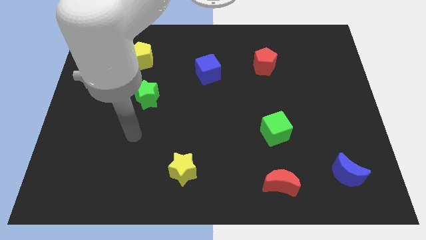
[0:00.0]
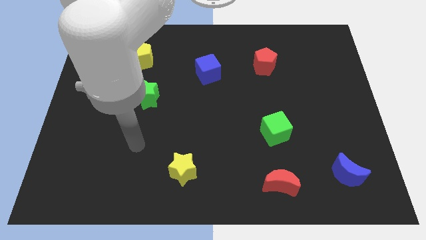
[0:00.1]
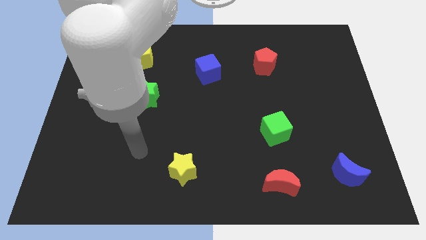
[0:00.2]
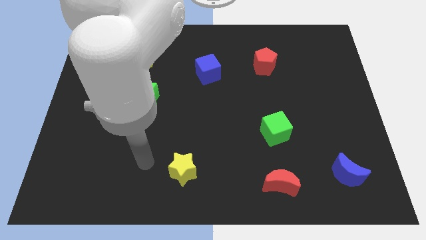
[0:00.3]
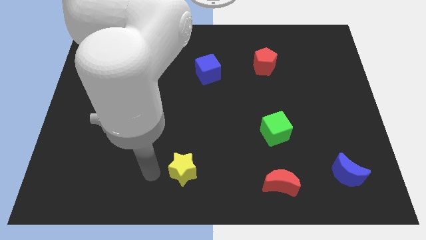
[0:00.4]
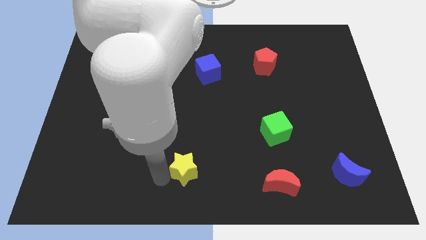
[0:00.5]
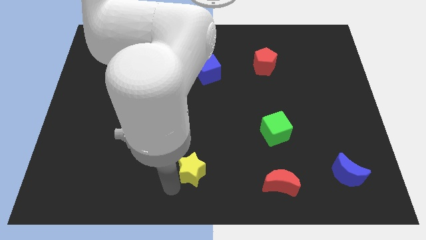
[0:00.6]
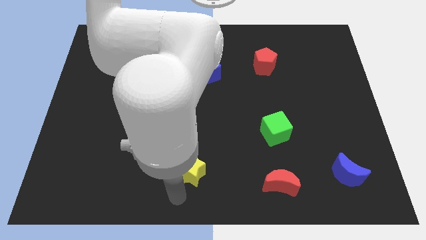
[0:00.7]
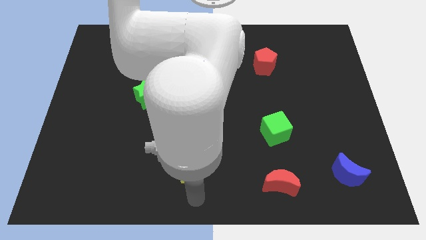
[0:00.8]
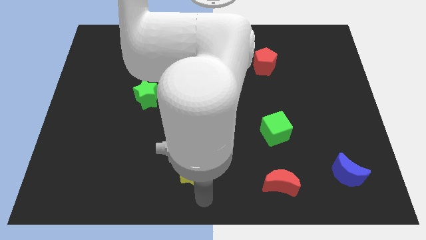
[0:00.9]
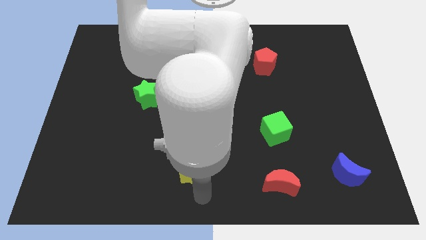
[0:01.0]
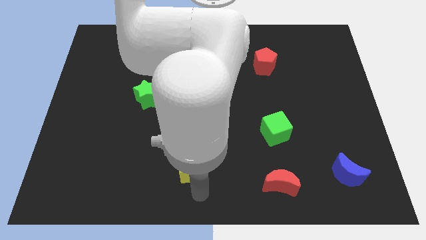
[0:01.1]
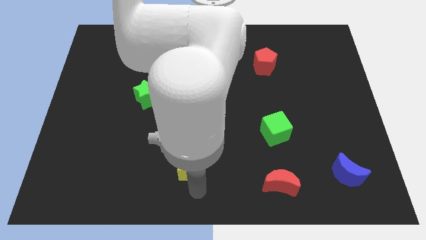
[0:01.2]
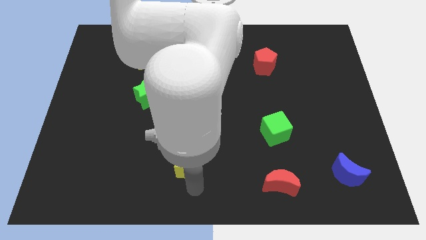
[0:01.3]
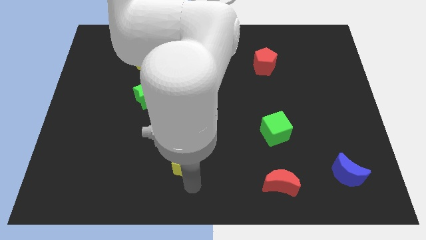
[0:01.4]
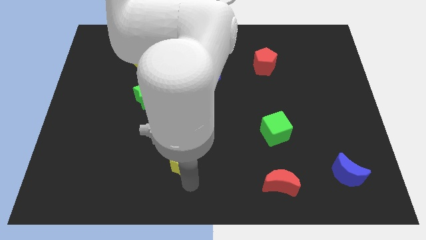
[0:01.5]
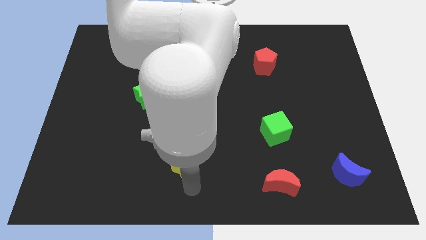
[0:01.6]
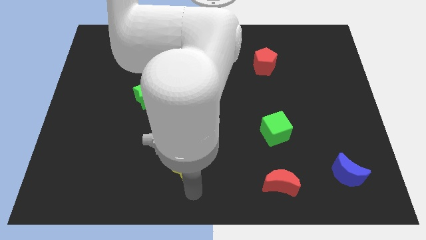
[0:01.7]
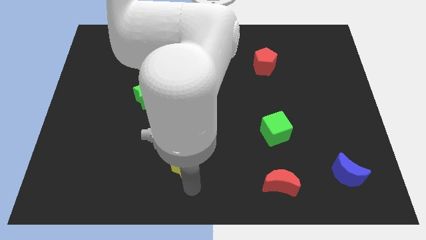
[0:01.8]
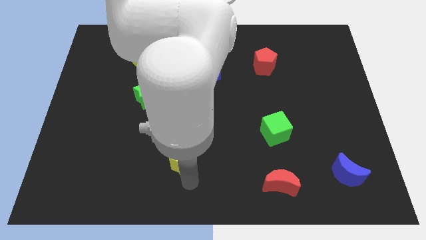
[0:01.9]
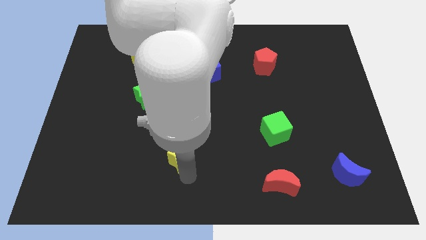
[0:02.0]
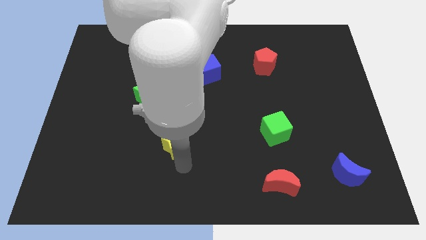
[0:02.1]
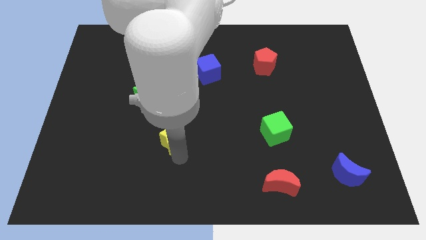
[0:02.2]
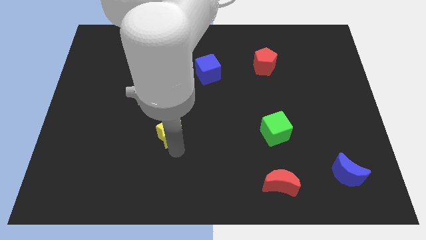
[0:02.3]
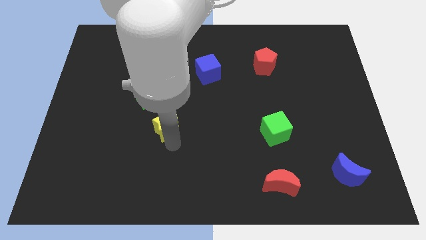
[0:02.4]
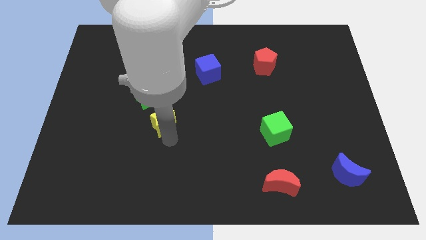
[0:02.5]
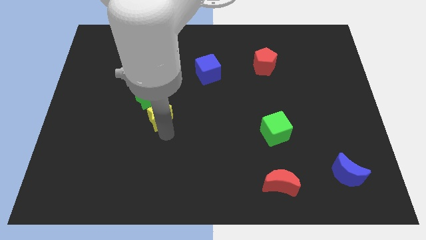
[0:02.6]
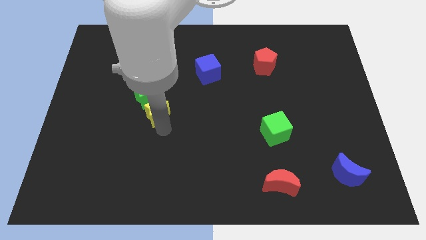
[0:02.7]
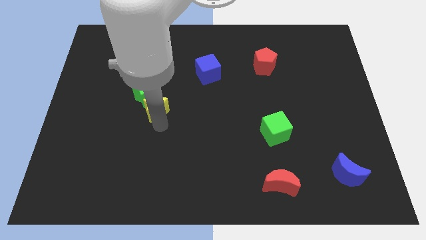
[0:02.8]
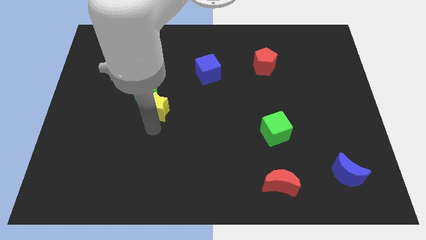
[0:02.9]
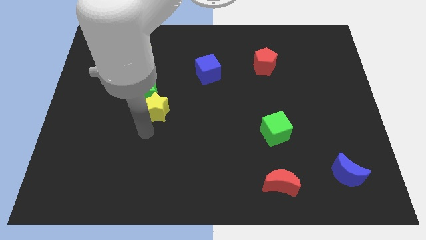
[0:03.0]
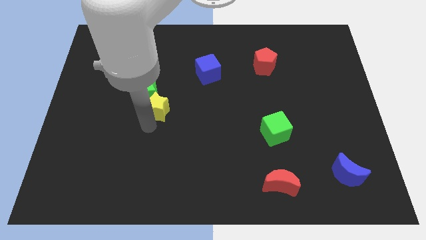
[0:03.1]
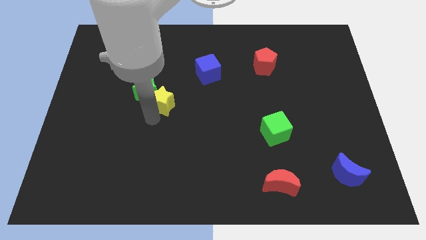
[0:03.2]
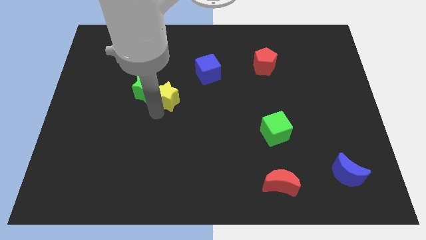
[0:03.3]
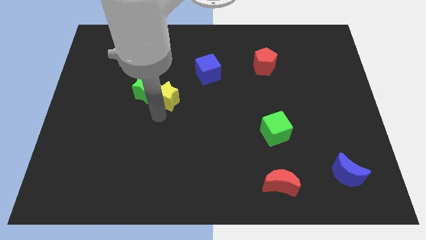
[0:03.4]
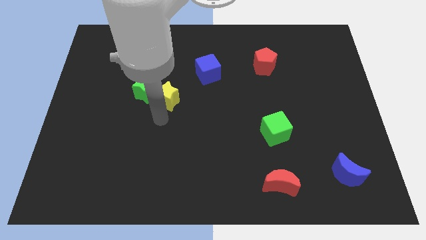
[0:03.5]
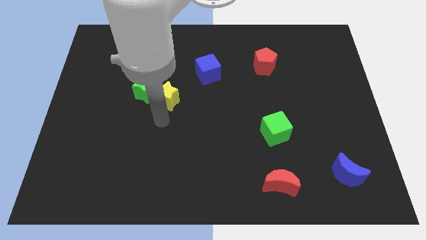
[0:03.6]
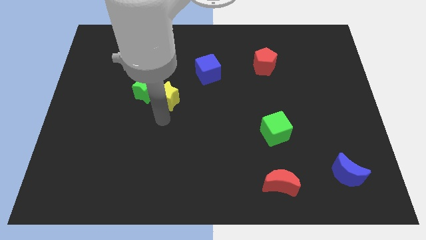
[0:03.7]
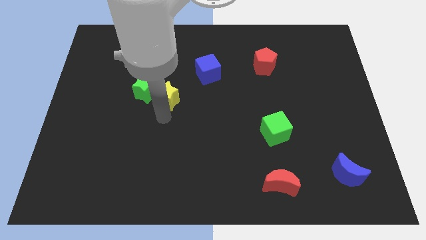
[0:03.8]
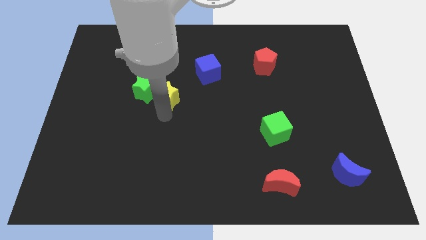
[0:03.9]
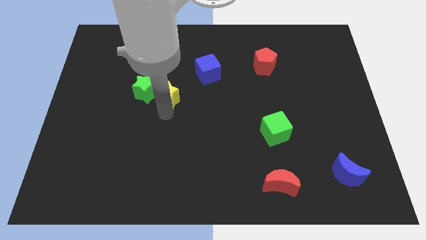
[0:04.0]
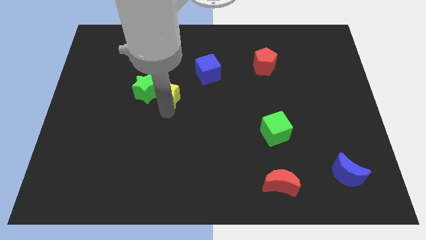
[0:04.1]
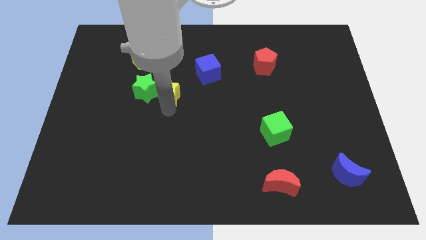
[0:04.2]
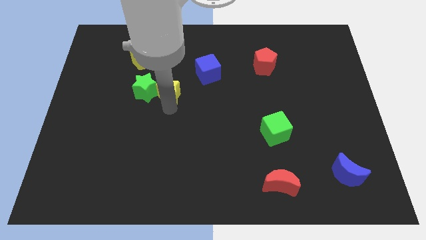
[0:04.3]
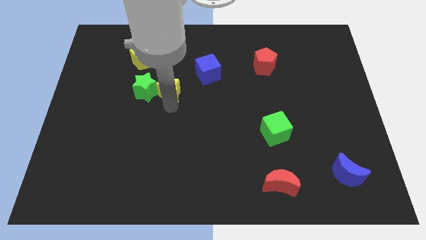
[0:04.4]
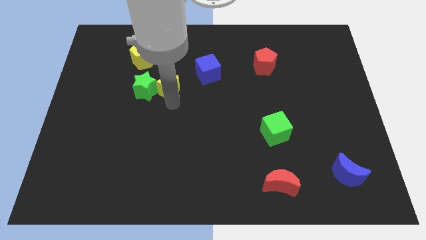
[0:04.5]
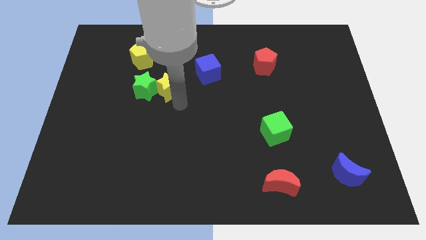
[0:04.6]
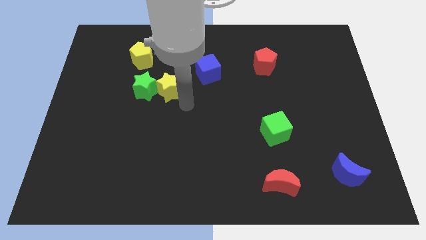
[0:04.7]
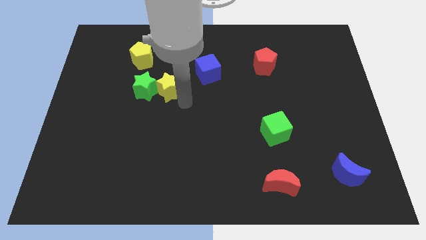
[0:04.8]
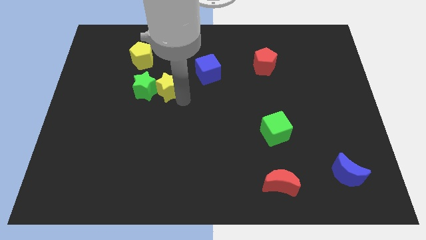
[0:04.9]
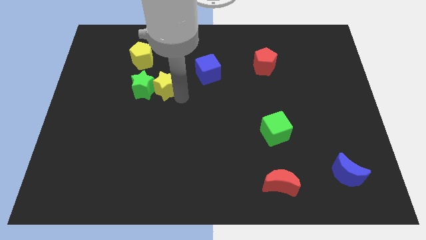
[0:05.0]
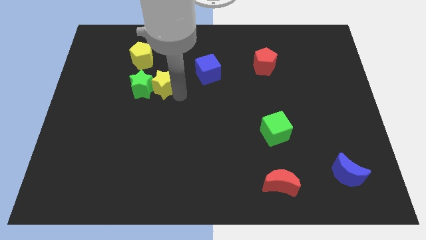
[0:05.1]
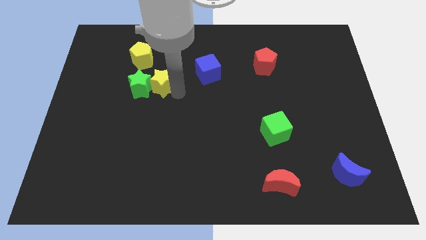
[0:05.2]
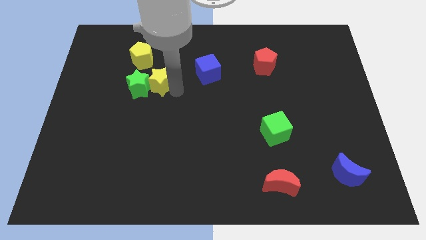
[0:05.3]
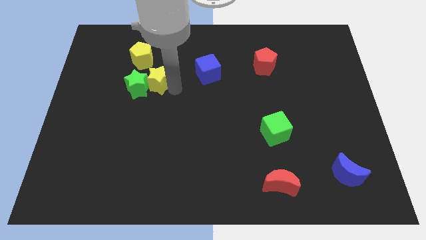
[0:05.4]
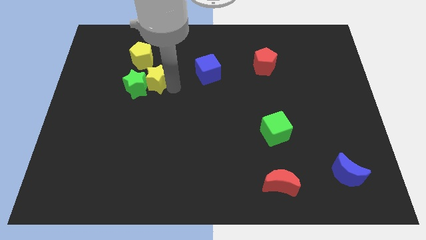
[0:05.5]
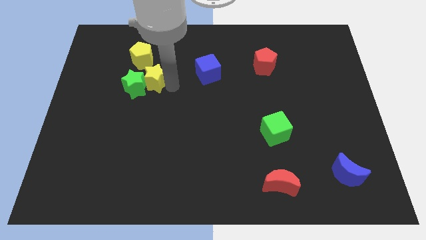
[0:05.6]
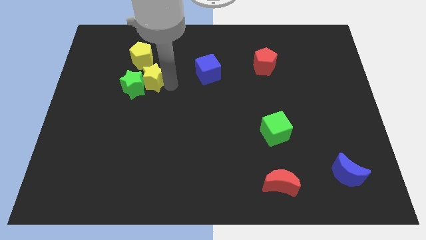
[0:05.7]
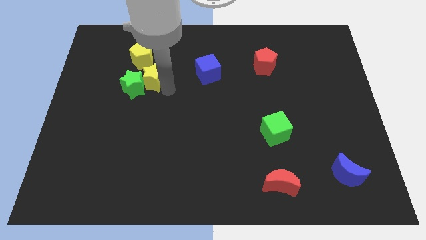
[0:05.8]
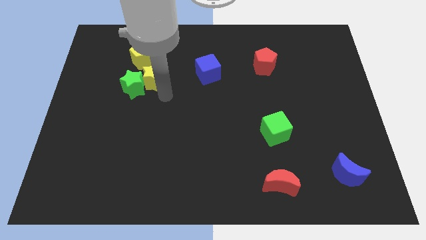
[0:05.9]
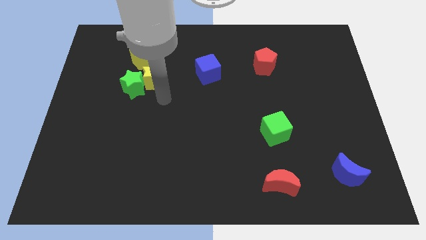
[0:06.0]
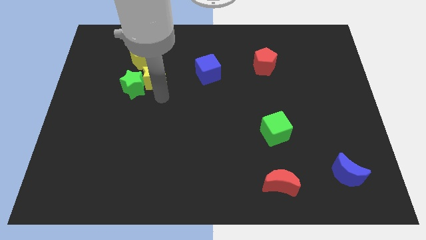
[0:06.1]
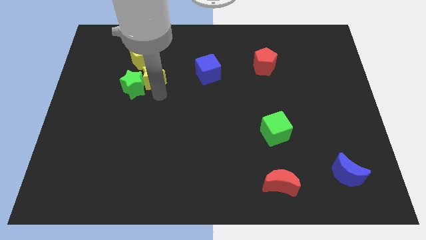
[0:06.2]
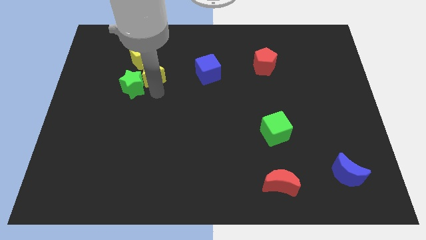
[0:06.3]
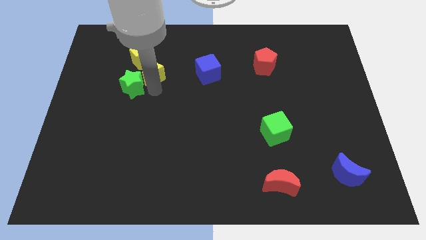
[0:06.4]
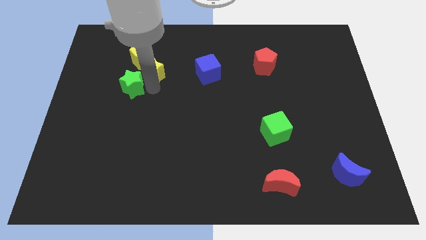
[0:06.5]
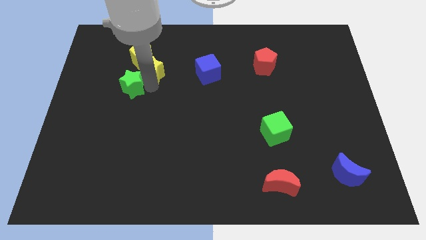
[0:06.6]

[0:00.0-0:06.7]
move the yellow star to the yellow pentagon
